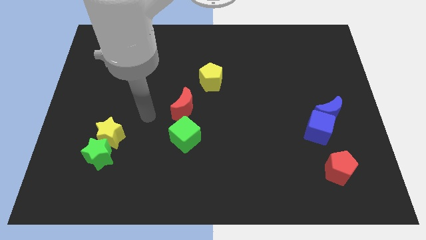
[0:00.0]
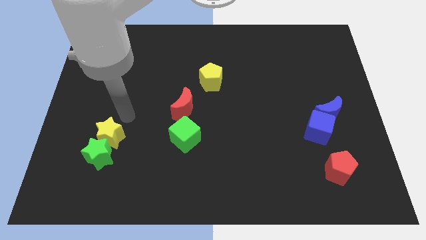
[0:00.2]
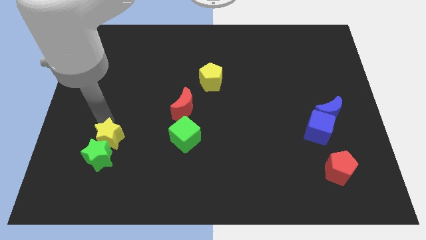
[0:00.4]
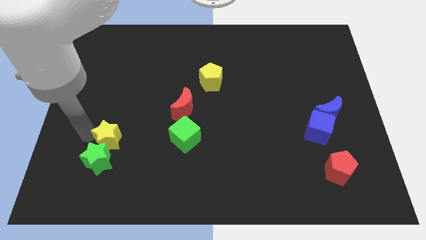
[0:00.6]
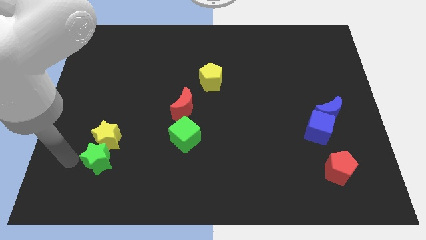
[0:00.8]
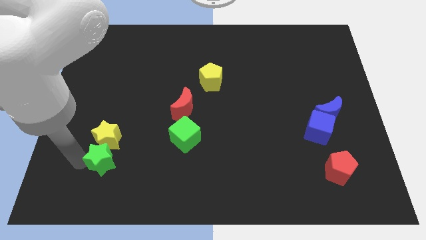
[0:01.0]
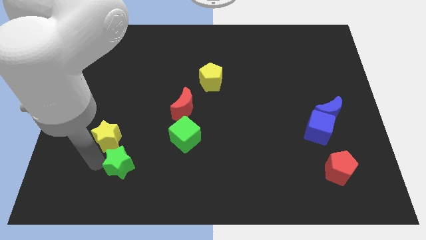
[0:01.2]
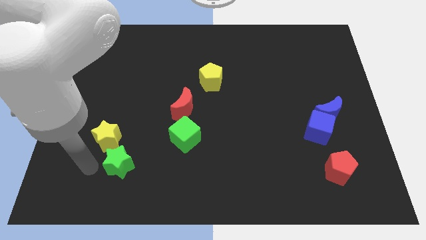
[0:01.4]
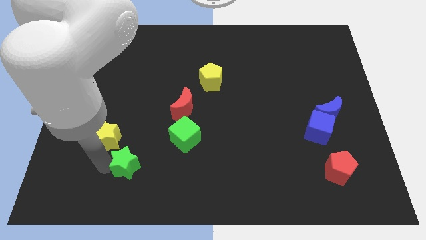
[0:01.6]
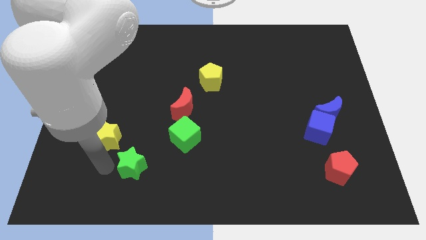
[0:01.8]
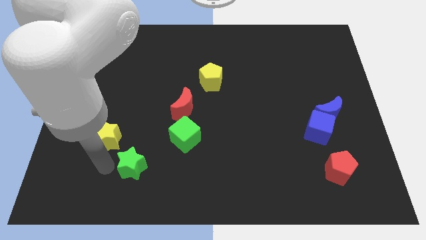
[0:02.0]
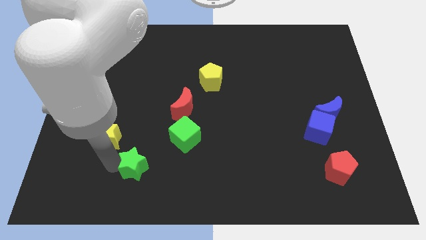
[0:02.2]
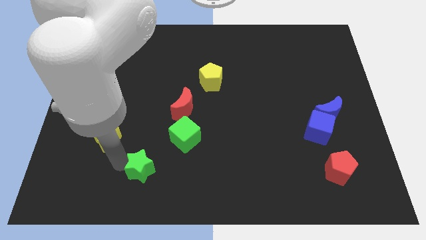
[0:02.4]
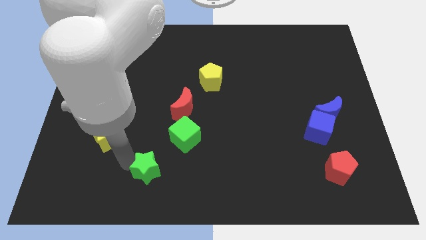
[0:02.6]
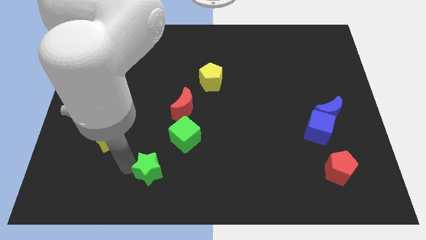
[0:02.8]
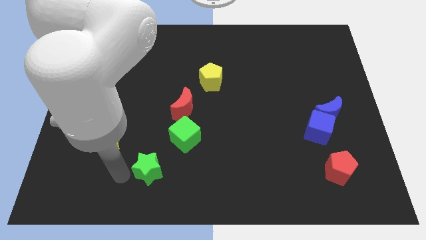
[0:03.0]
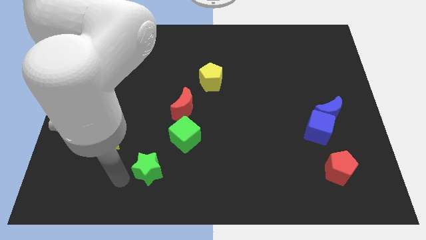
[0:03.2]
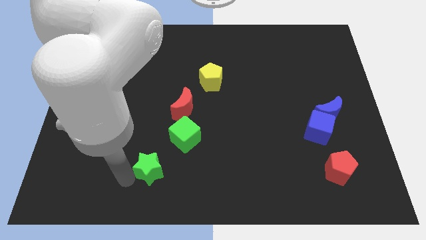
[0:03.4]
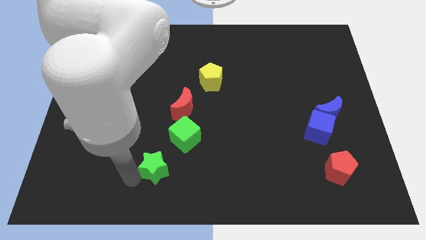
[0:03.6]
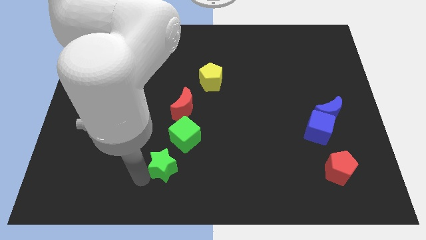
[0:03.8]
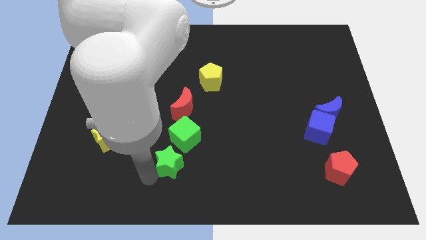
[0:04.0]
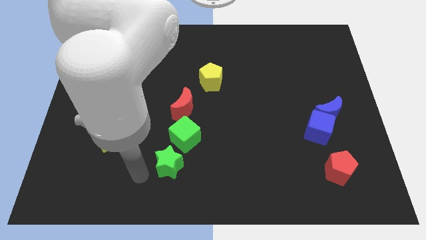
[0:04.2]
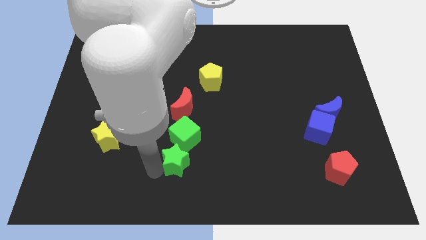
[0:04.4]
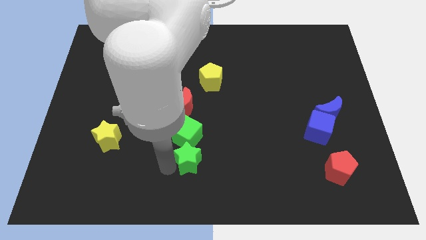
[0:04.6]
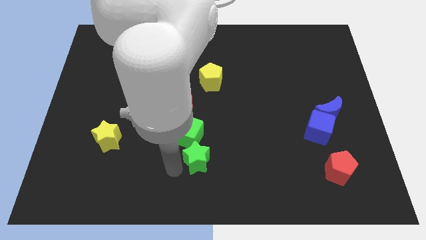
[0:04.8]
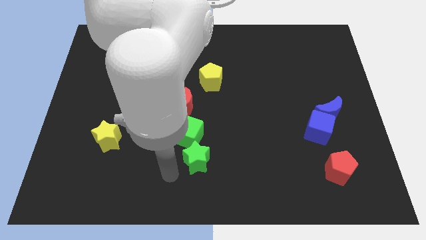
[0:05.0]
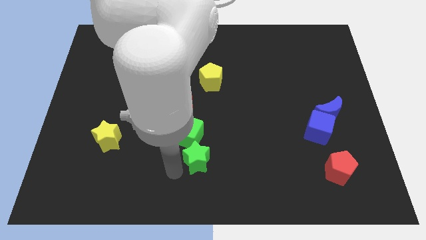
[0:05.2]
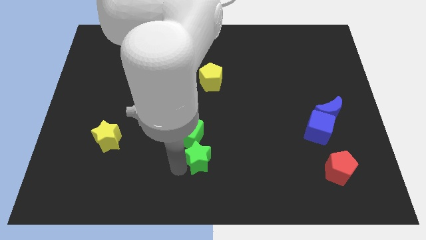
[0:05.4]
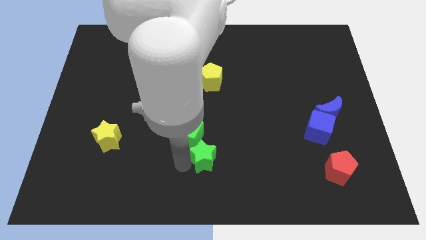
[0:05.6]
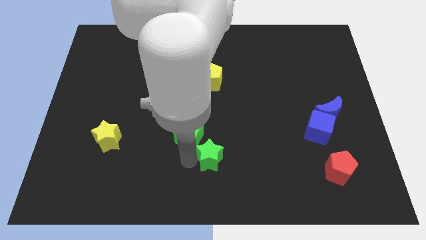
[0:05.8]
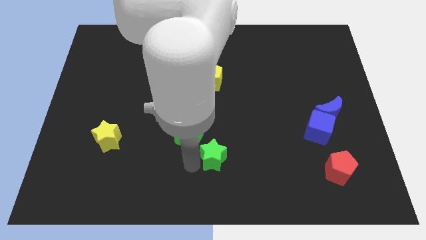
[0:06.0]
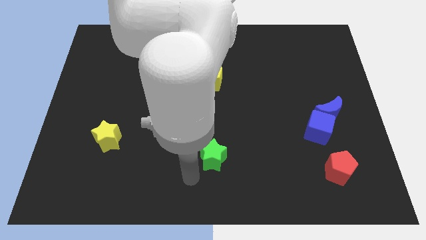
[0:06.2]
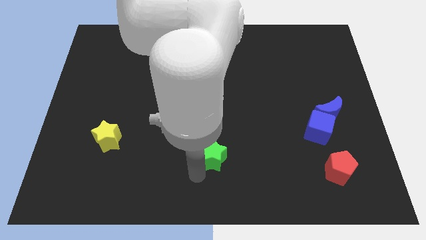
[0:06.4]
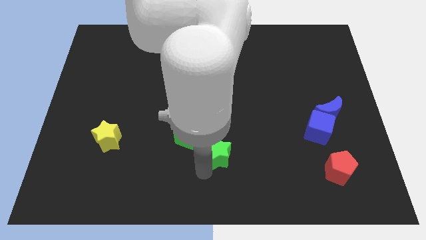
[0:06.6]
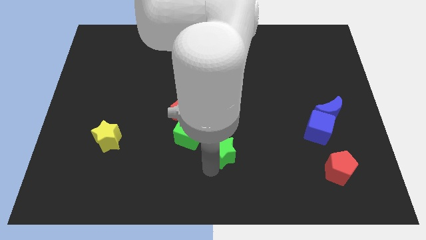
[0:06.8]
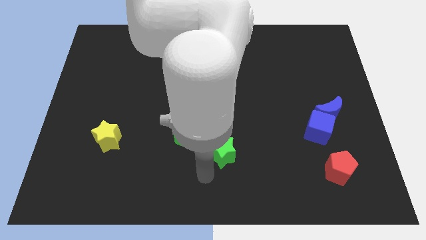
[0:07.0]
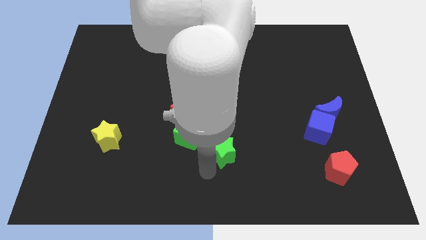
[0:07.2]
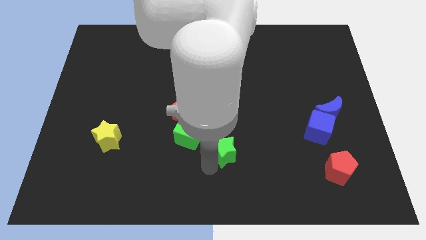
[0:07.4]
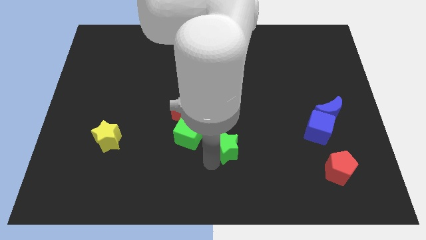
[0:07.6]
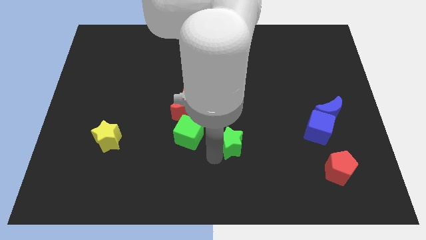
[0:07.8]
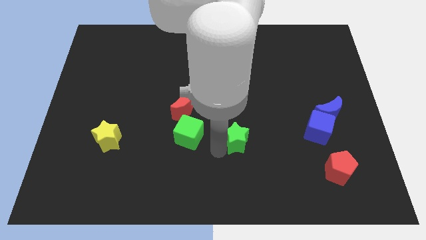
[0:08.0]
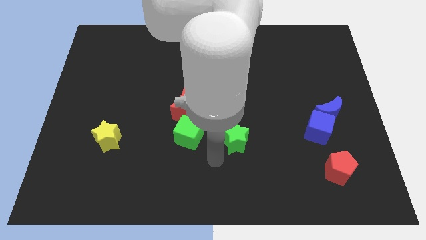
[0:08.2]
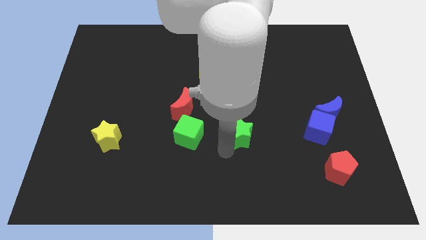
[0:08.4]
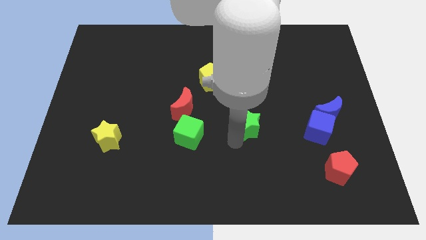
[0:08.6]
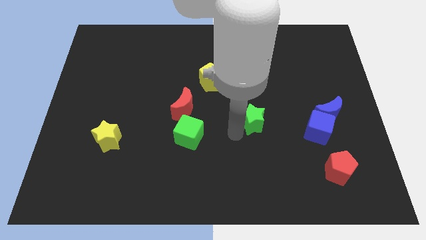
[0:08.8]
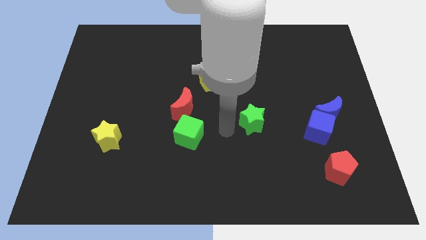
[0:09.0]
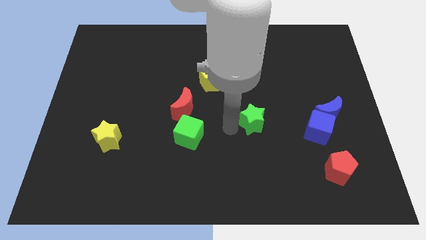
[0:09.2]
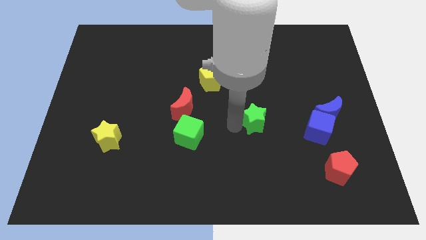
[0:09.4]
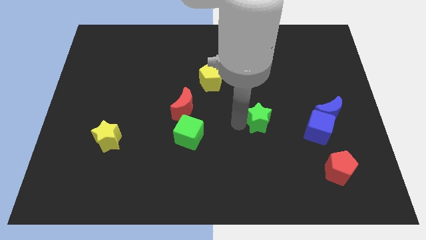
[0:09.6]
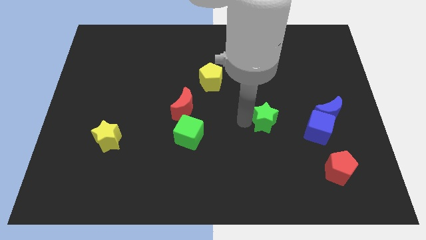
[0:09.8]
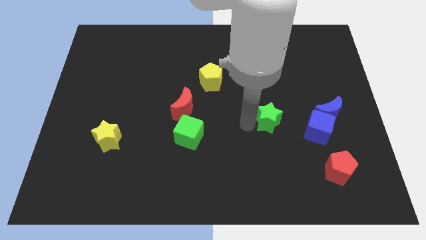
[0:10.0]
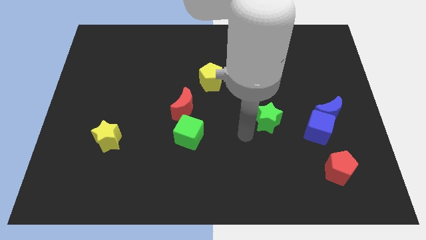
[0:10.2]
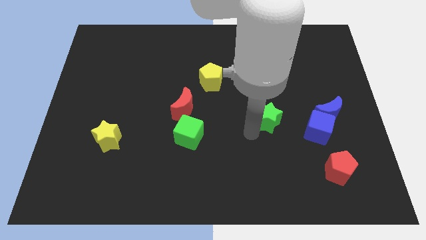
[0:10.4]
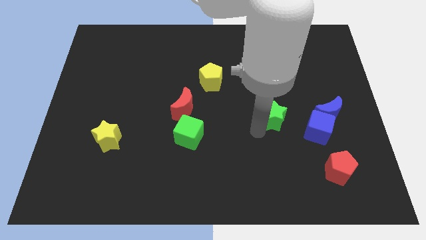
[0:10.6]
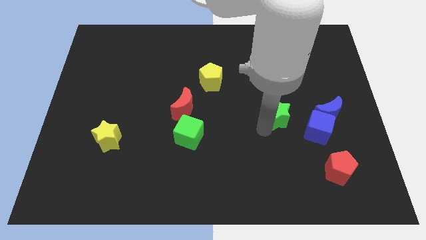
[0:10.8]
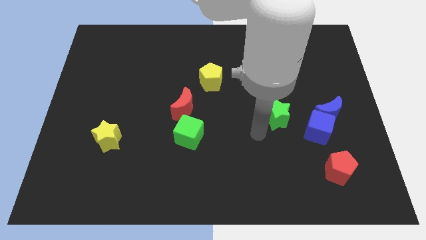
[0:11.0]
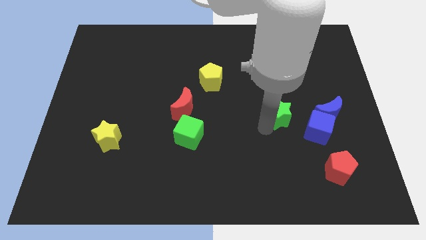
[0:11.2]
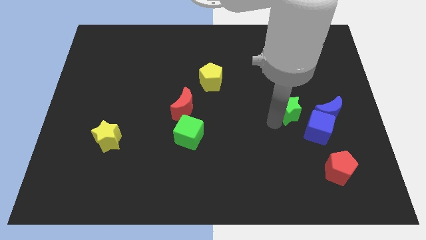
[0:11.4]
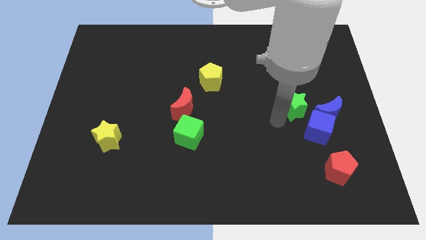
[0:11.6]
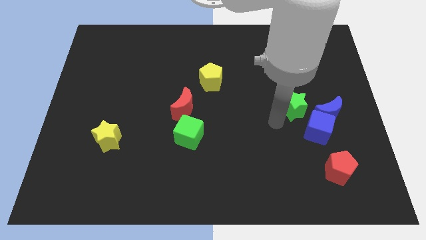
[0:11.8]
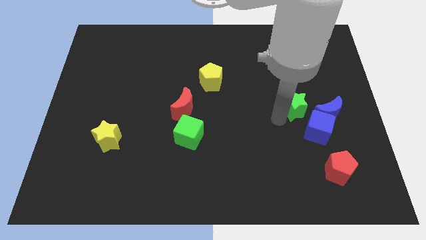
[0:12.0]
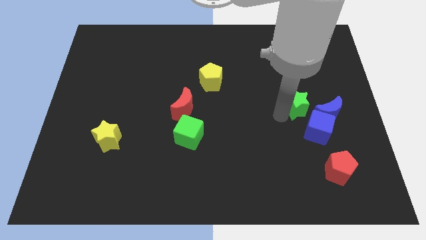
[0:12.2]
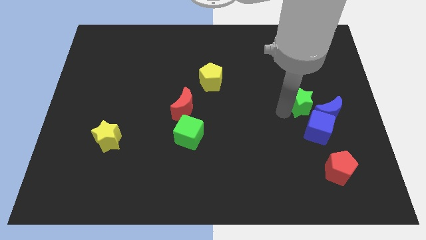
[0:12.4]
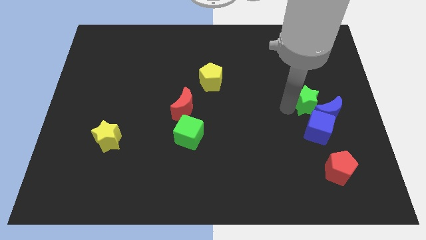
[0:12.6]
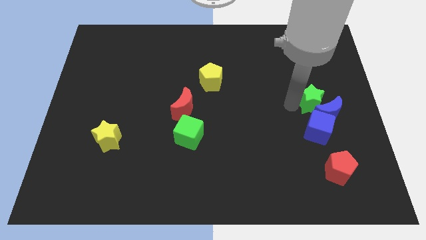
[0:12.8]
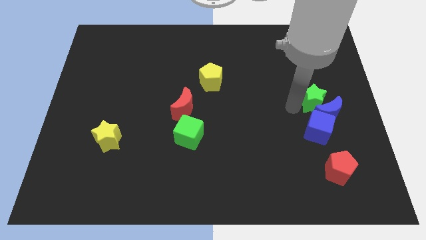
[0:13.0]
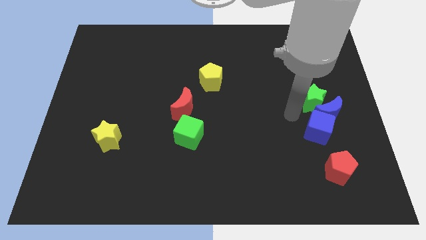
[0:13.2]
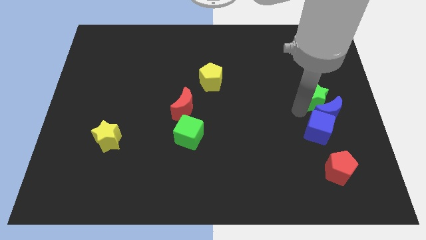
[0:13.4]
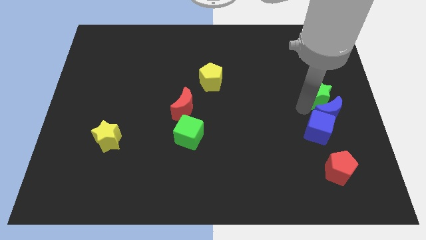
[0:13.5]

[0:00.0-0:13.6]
push the green star to the right side of the board
